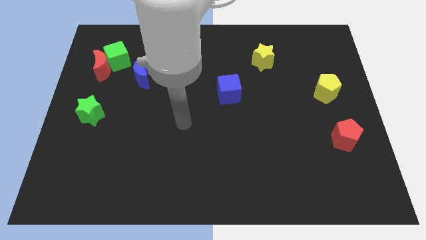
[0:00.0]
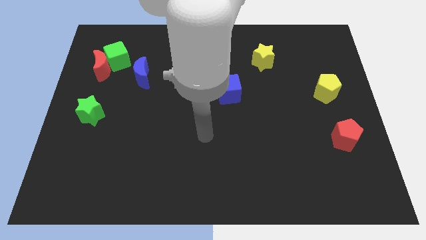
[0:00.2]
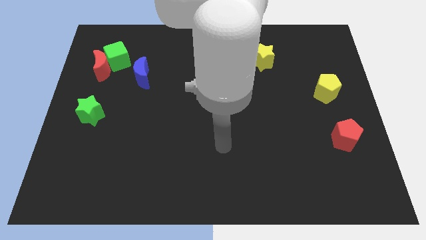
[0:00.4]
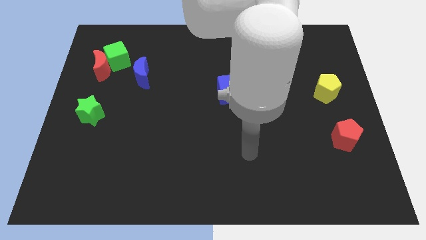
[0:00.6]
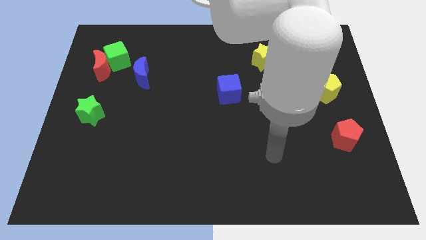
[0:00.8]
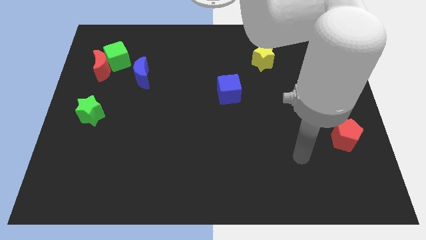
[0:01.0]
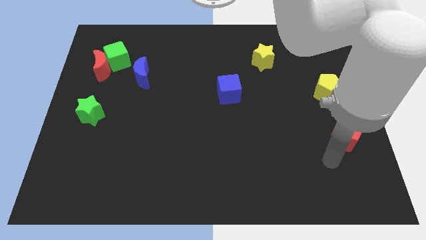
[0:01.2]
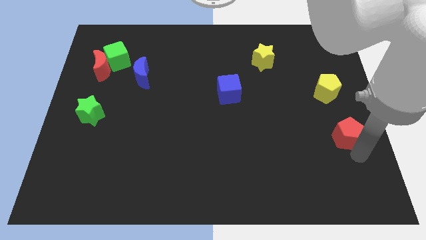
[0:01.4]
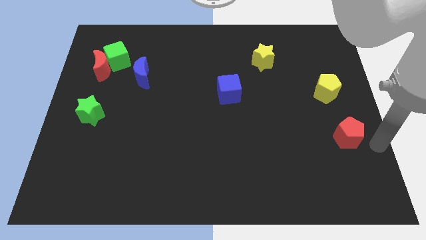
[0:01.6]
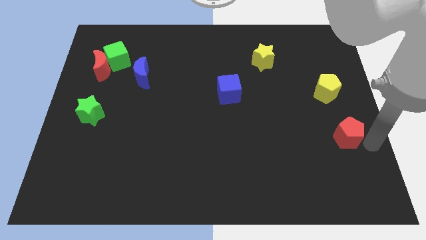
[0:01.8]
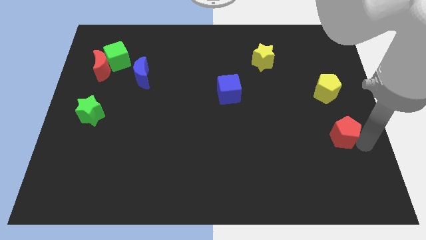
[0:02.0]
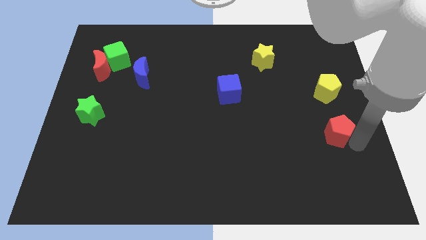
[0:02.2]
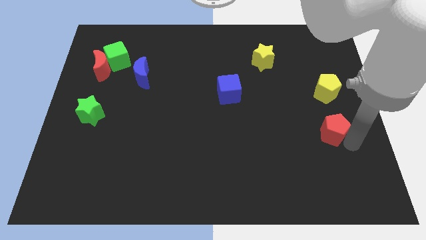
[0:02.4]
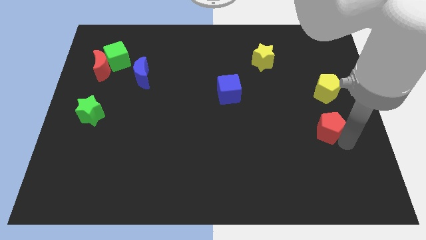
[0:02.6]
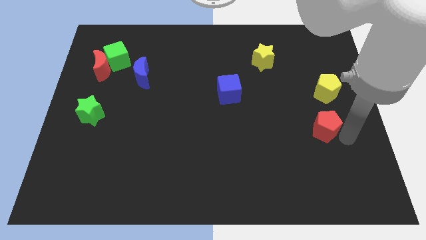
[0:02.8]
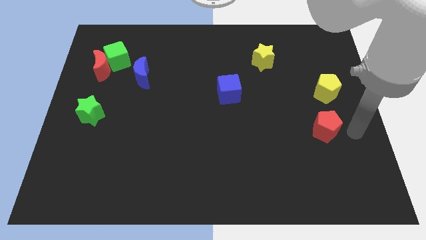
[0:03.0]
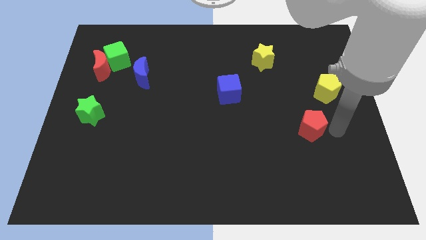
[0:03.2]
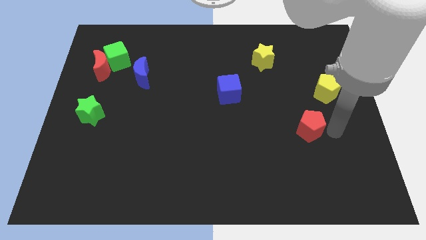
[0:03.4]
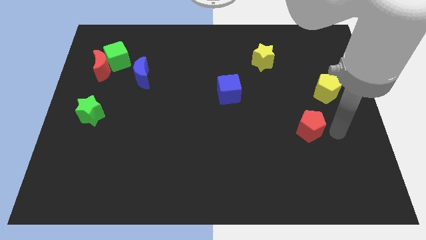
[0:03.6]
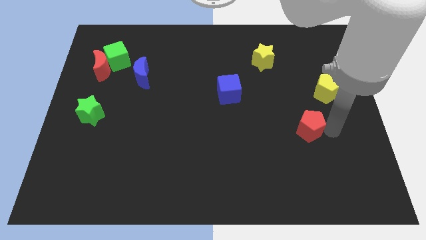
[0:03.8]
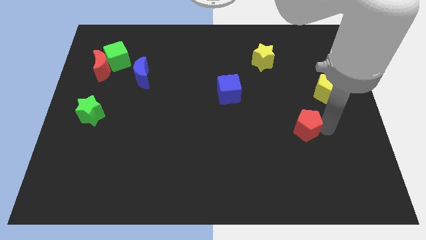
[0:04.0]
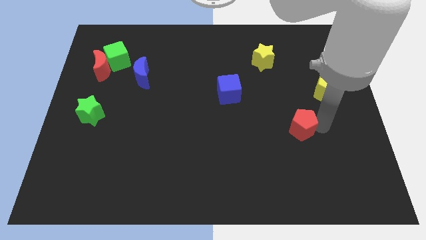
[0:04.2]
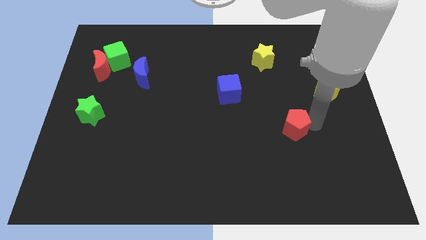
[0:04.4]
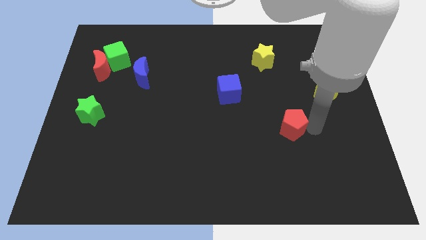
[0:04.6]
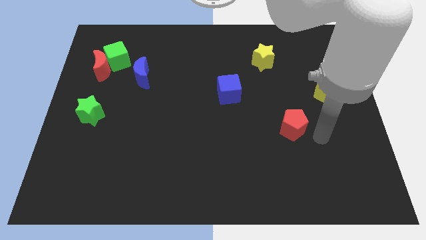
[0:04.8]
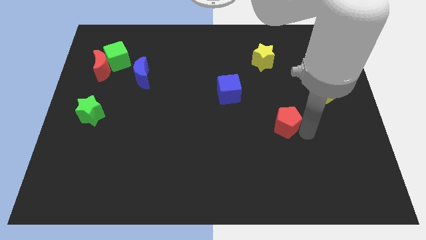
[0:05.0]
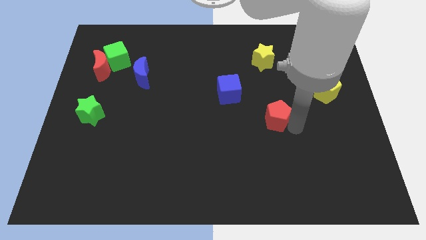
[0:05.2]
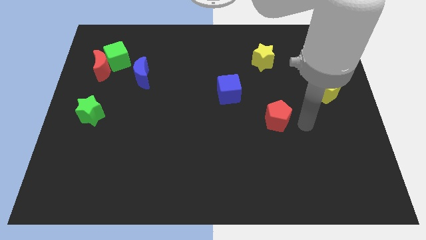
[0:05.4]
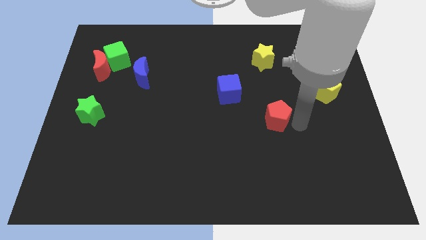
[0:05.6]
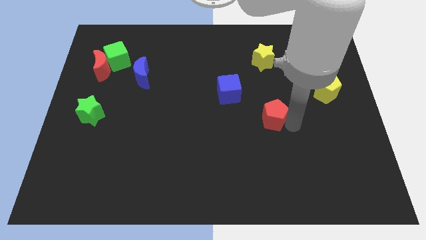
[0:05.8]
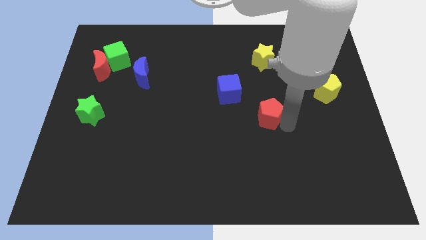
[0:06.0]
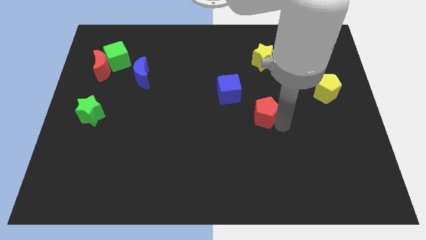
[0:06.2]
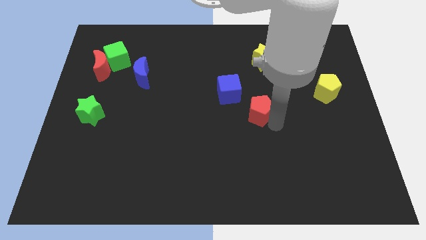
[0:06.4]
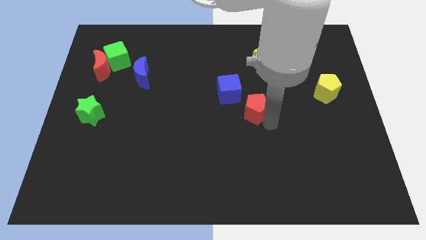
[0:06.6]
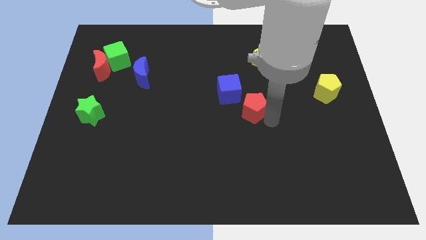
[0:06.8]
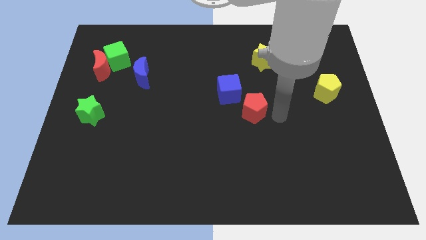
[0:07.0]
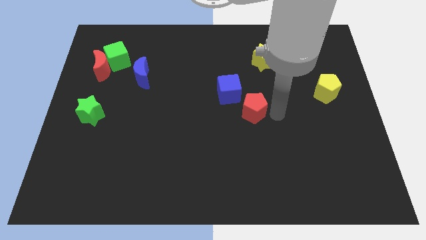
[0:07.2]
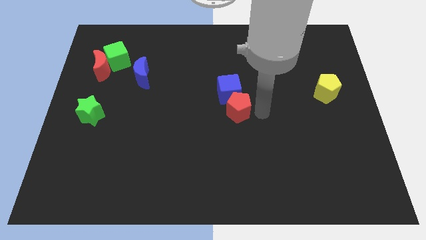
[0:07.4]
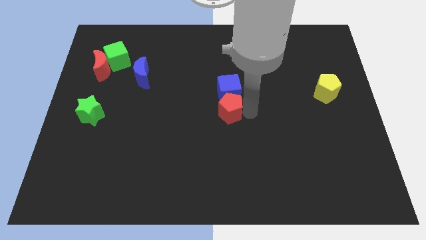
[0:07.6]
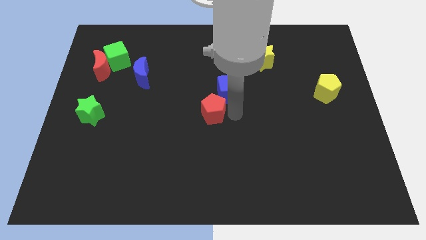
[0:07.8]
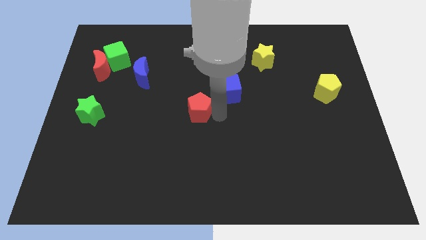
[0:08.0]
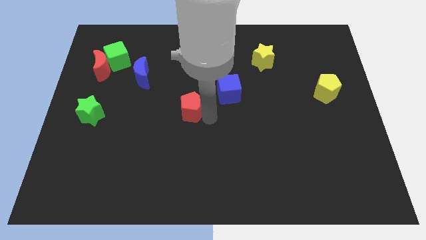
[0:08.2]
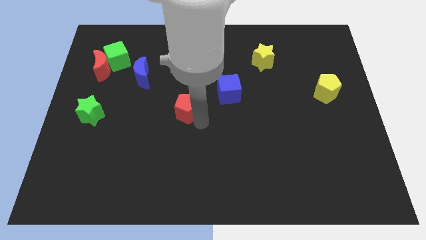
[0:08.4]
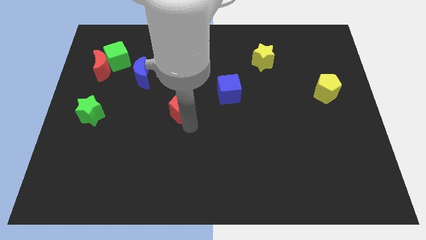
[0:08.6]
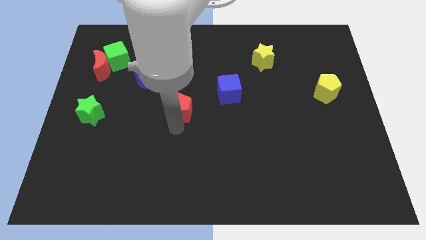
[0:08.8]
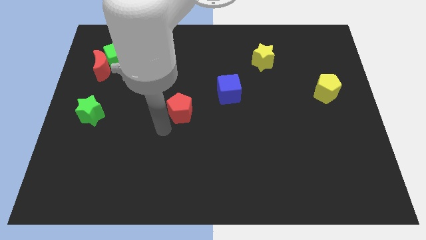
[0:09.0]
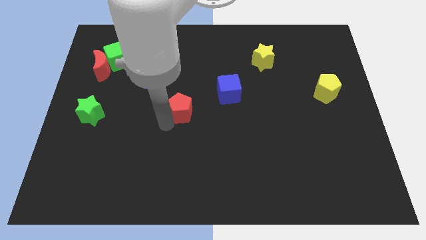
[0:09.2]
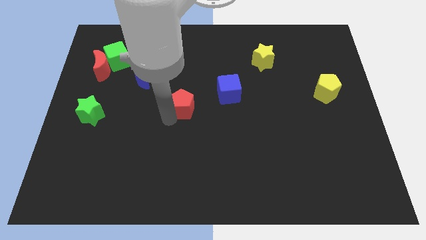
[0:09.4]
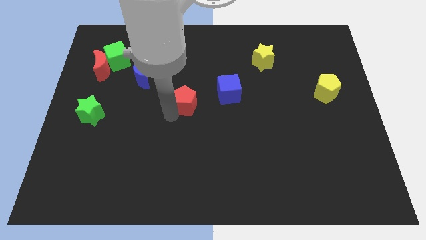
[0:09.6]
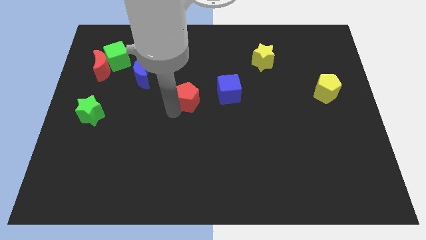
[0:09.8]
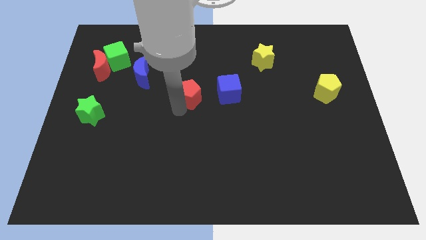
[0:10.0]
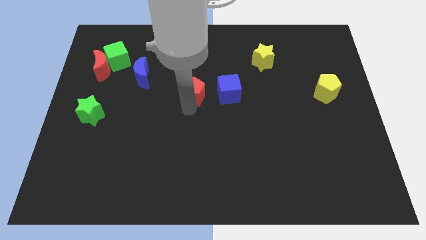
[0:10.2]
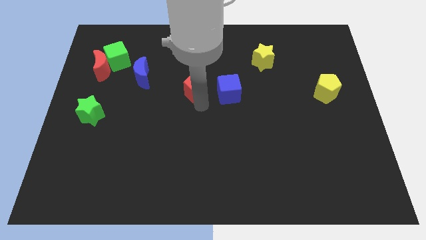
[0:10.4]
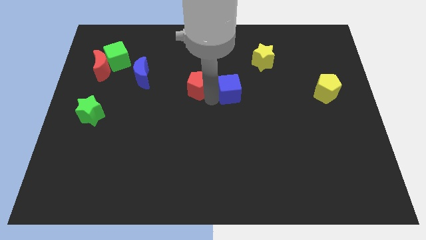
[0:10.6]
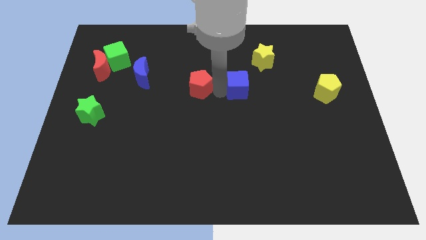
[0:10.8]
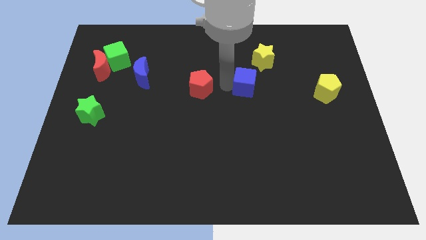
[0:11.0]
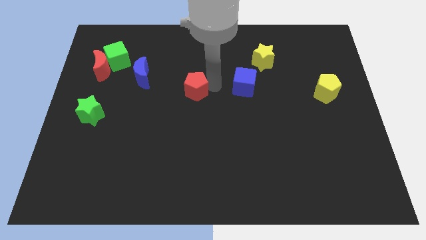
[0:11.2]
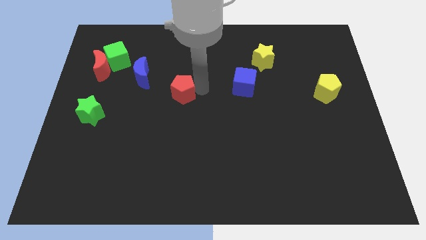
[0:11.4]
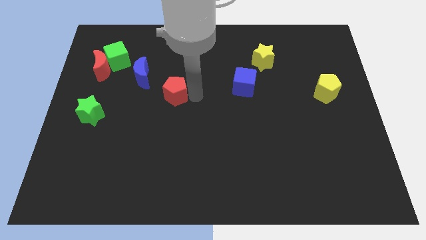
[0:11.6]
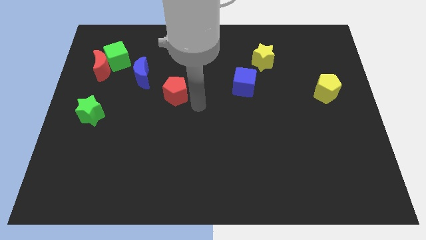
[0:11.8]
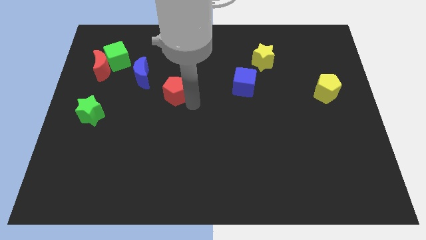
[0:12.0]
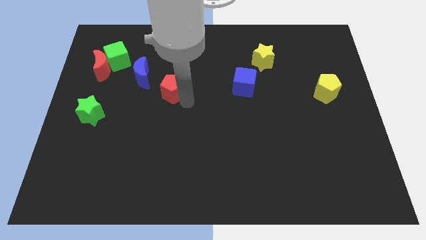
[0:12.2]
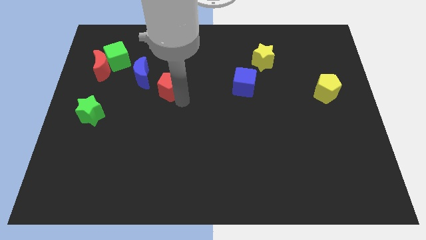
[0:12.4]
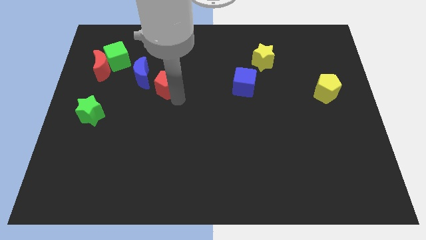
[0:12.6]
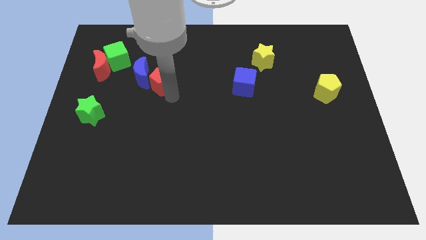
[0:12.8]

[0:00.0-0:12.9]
slide the red pentagon to the blue moon
